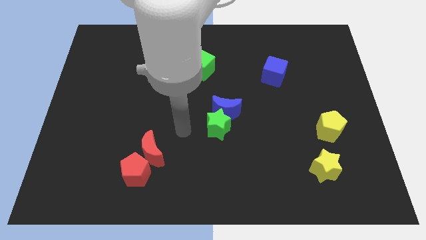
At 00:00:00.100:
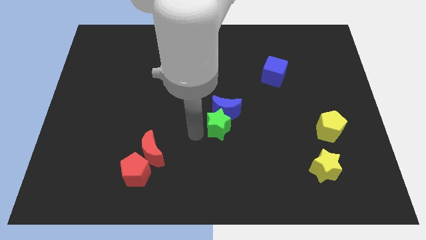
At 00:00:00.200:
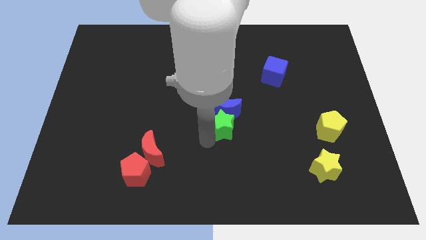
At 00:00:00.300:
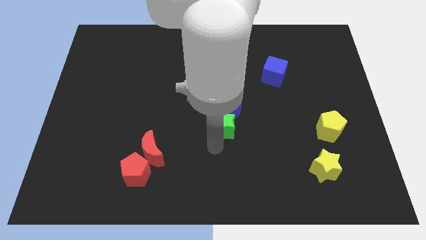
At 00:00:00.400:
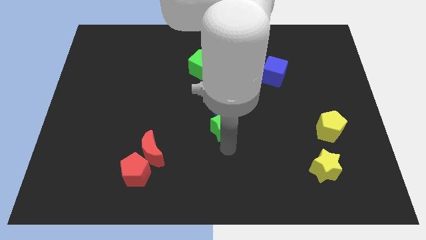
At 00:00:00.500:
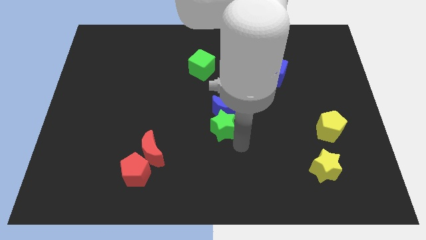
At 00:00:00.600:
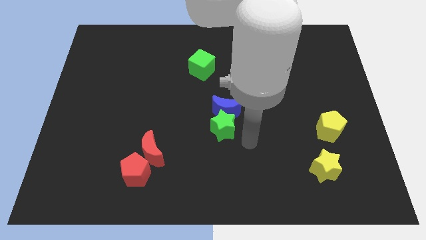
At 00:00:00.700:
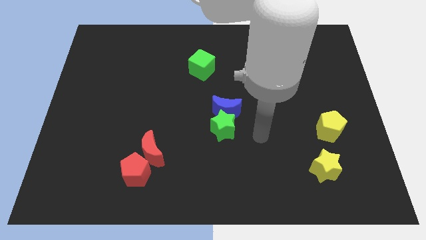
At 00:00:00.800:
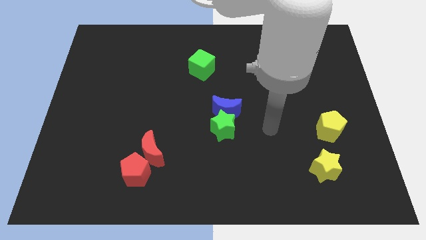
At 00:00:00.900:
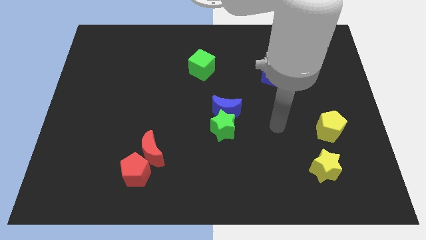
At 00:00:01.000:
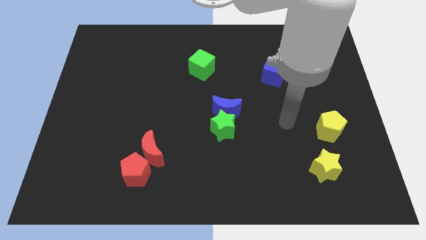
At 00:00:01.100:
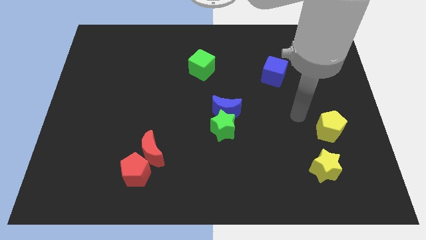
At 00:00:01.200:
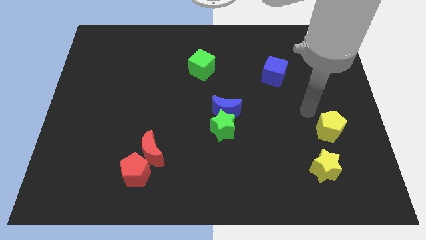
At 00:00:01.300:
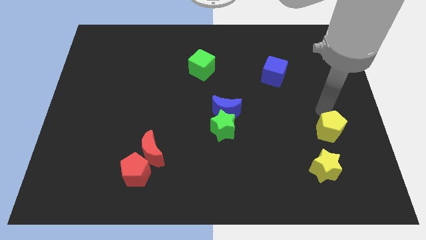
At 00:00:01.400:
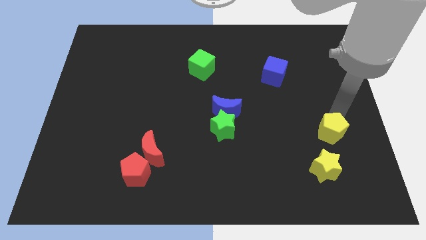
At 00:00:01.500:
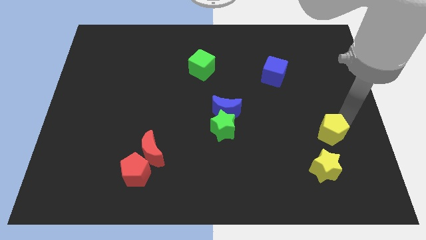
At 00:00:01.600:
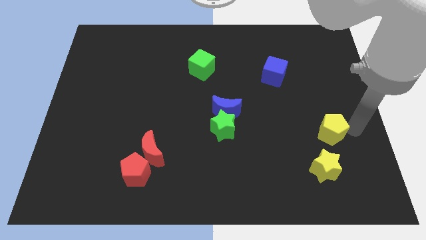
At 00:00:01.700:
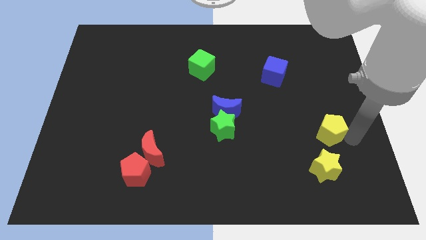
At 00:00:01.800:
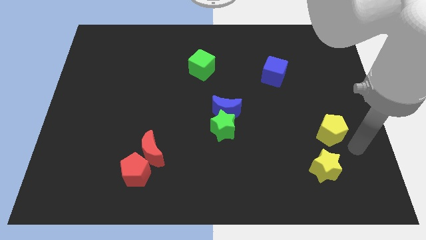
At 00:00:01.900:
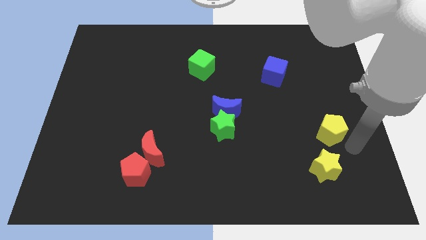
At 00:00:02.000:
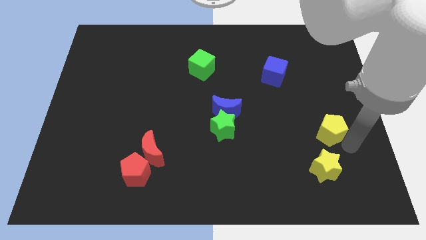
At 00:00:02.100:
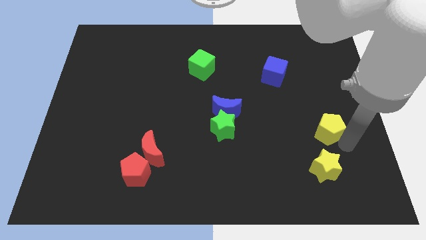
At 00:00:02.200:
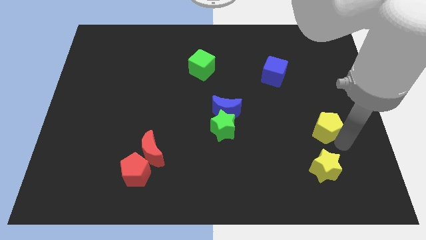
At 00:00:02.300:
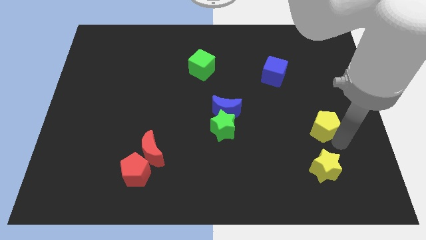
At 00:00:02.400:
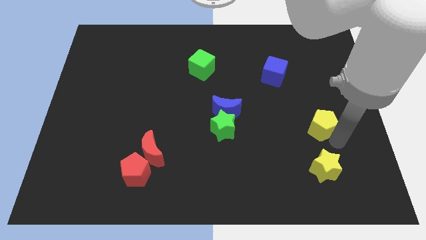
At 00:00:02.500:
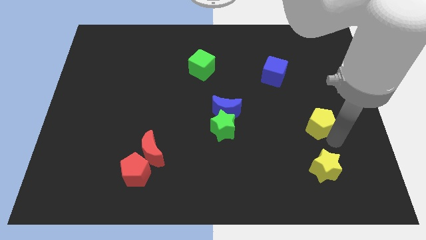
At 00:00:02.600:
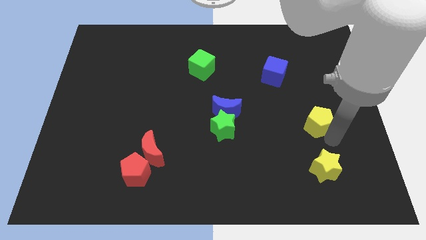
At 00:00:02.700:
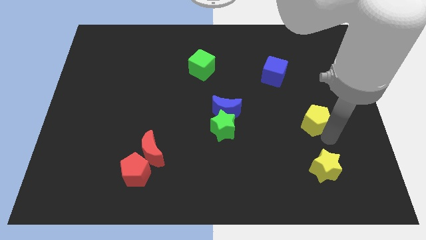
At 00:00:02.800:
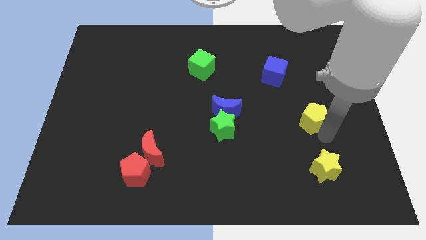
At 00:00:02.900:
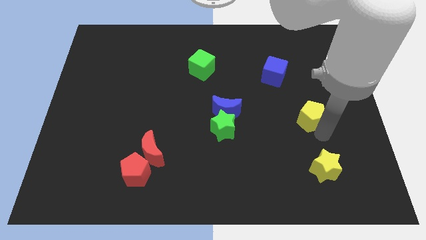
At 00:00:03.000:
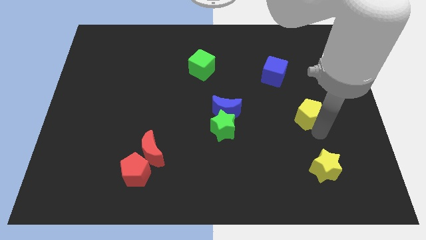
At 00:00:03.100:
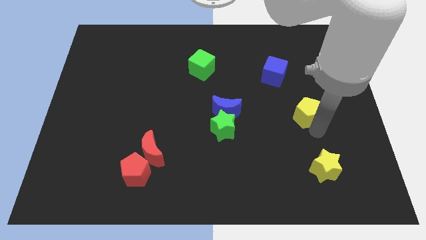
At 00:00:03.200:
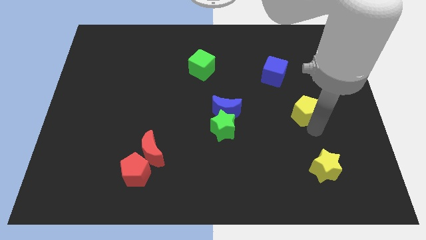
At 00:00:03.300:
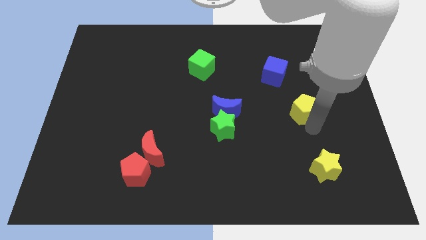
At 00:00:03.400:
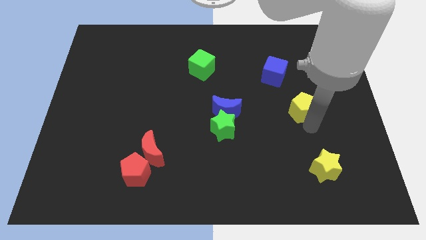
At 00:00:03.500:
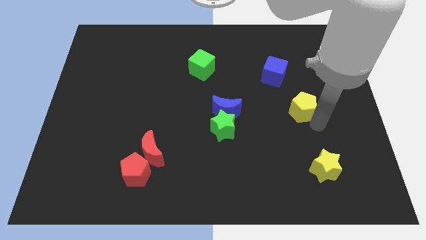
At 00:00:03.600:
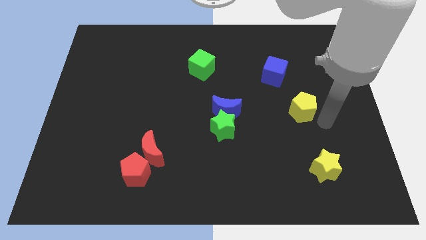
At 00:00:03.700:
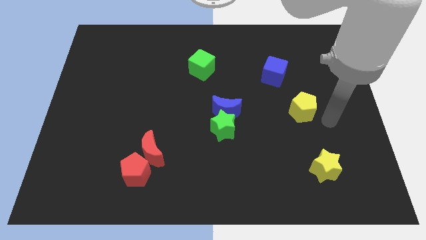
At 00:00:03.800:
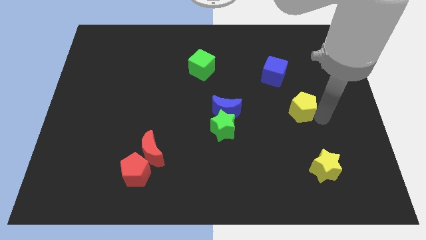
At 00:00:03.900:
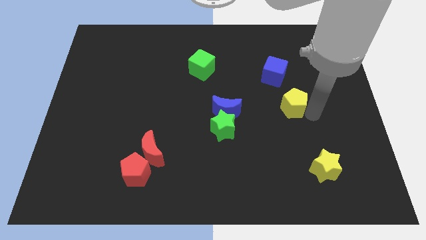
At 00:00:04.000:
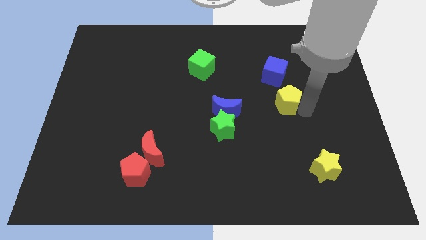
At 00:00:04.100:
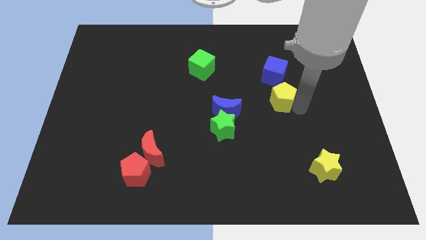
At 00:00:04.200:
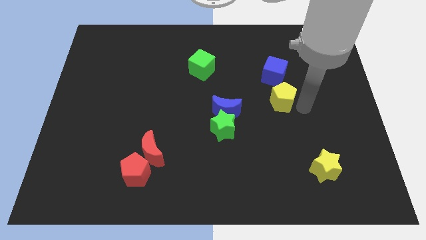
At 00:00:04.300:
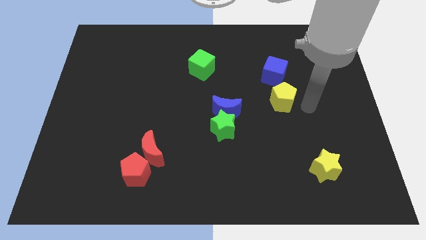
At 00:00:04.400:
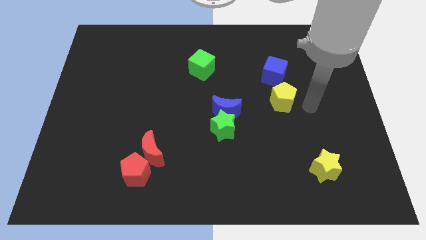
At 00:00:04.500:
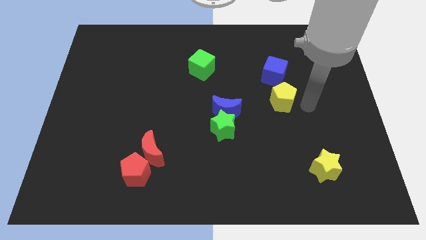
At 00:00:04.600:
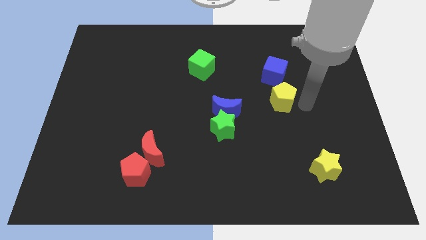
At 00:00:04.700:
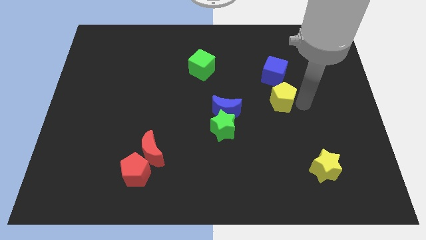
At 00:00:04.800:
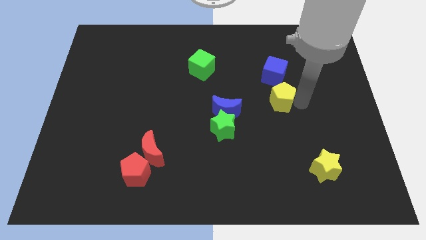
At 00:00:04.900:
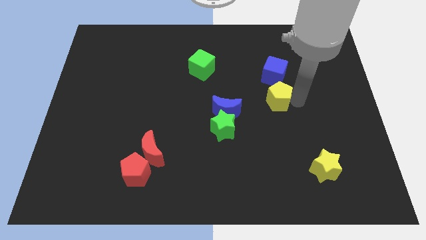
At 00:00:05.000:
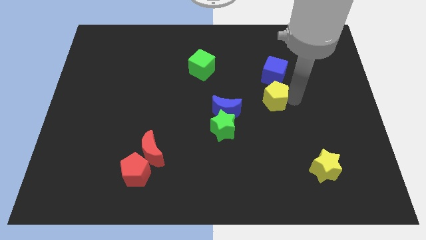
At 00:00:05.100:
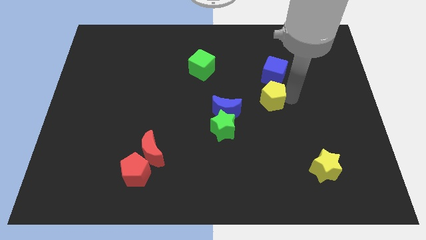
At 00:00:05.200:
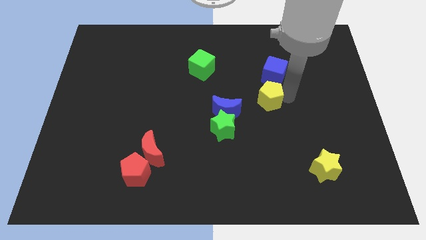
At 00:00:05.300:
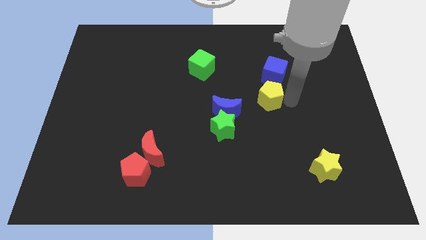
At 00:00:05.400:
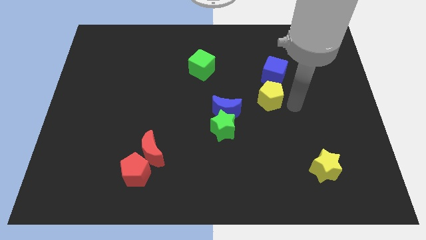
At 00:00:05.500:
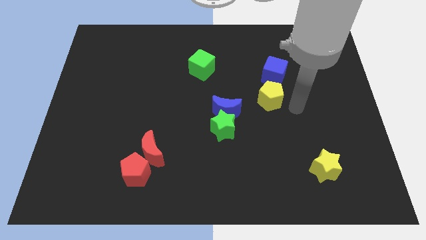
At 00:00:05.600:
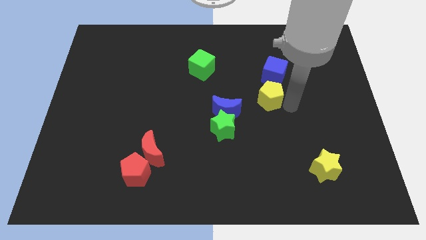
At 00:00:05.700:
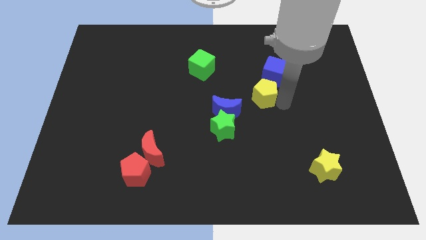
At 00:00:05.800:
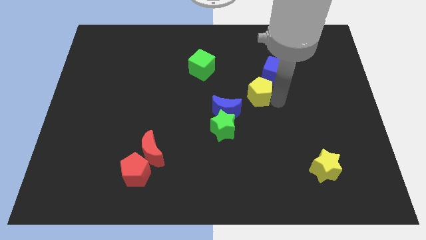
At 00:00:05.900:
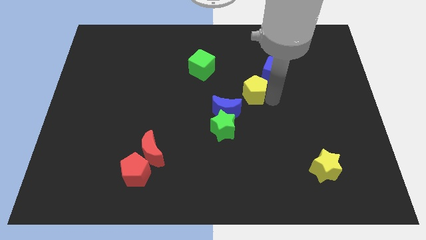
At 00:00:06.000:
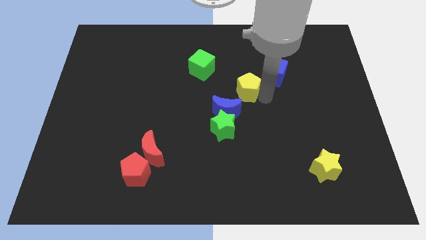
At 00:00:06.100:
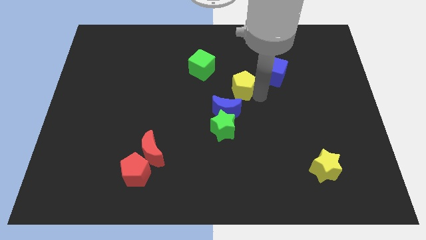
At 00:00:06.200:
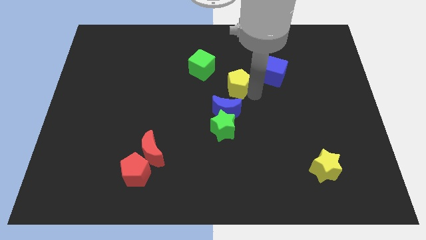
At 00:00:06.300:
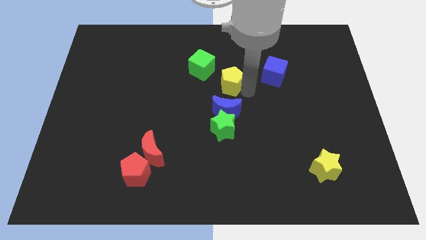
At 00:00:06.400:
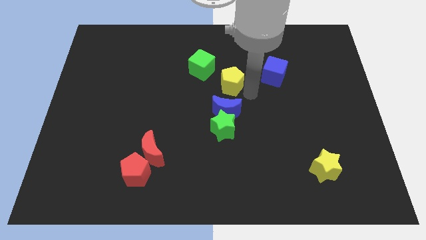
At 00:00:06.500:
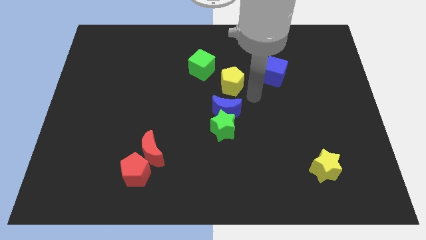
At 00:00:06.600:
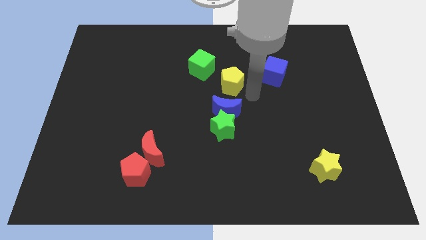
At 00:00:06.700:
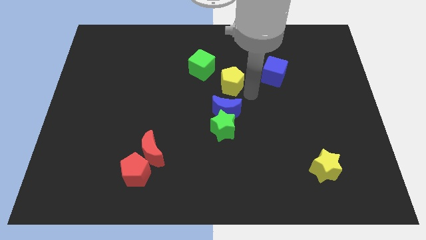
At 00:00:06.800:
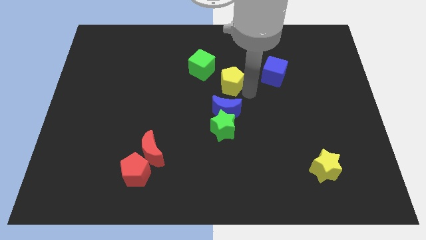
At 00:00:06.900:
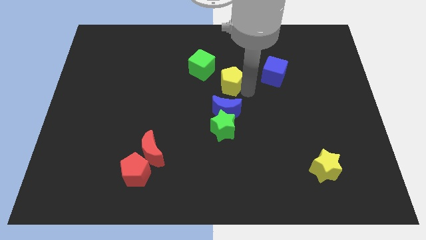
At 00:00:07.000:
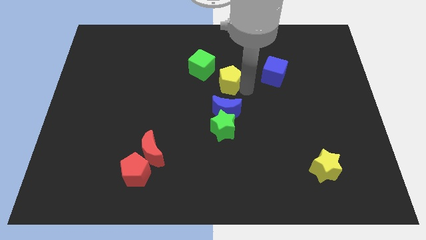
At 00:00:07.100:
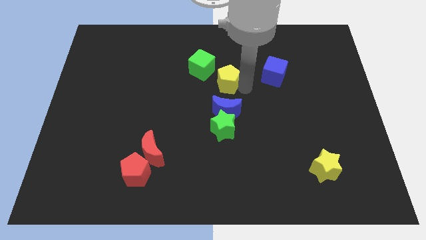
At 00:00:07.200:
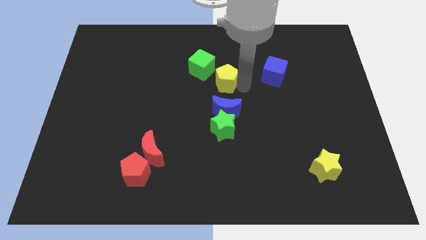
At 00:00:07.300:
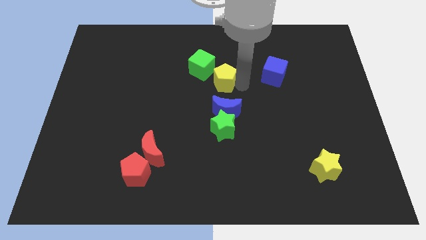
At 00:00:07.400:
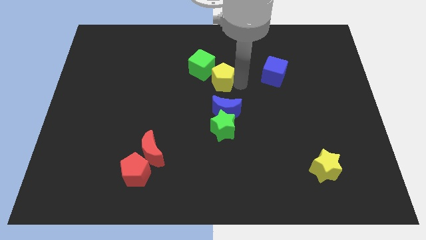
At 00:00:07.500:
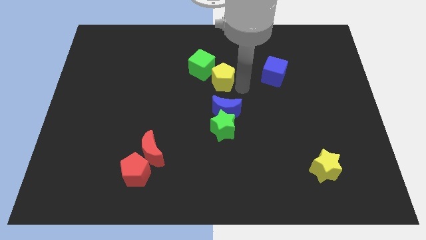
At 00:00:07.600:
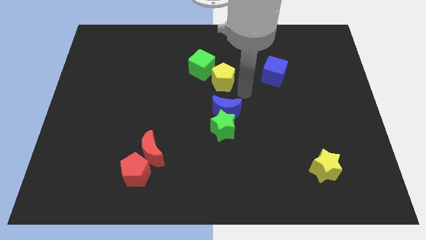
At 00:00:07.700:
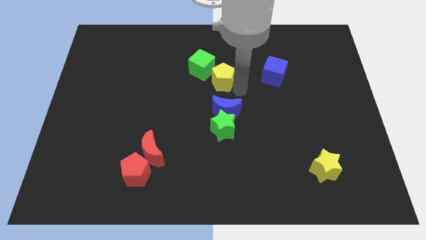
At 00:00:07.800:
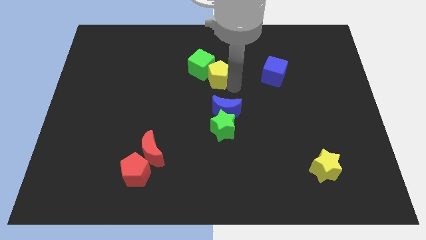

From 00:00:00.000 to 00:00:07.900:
move the yellow pentagon towards the green cube
